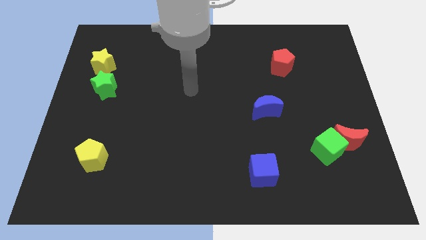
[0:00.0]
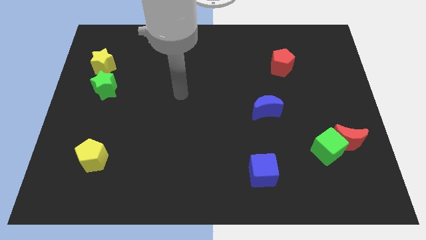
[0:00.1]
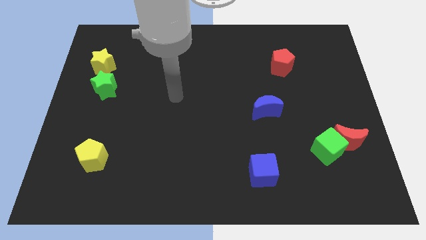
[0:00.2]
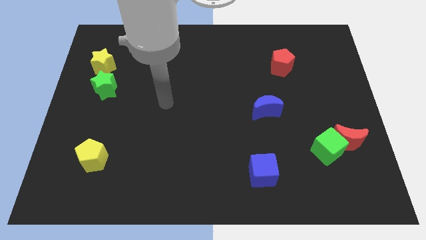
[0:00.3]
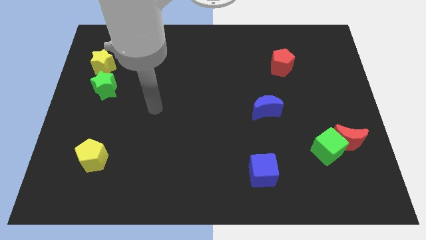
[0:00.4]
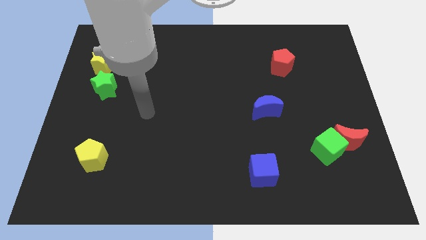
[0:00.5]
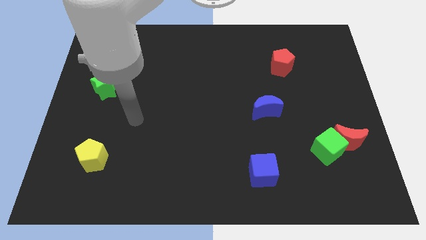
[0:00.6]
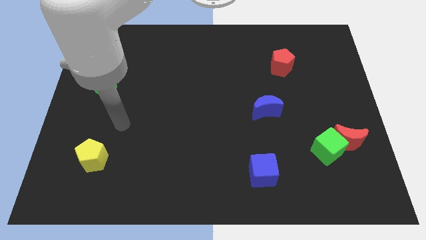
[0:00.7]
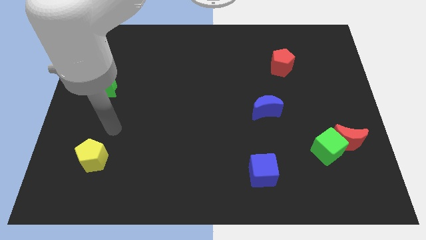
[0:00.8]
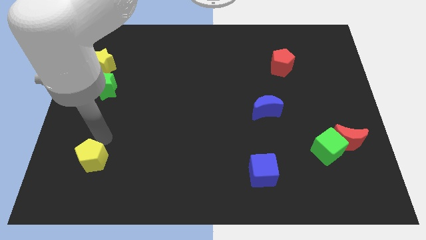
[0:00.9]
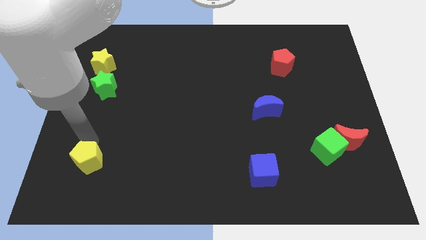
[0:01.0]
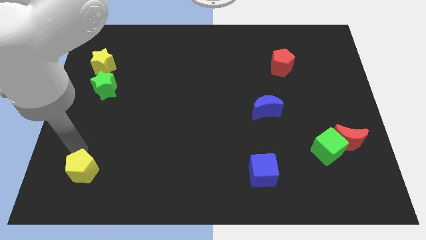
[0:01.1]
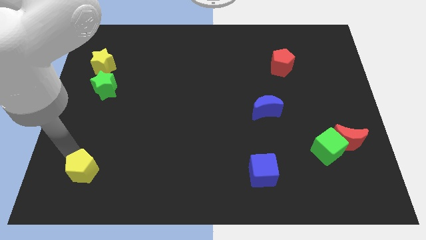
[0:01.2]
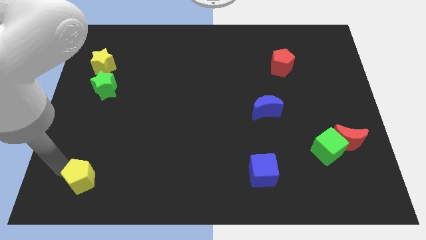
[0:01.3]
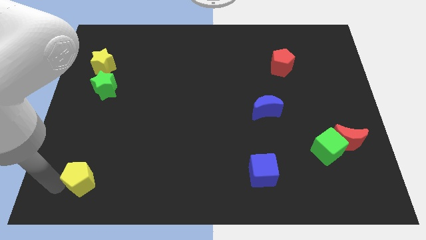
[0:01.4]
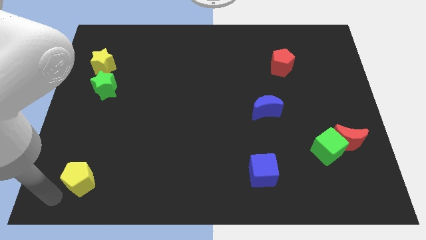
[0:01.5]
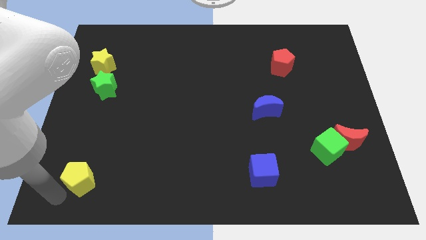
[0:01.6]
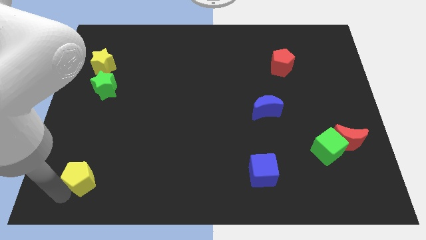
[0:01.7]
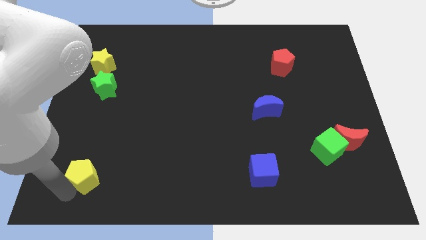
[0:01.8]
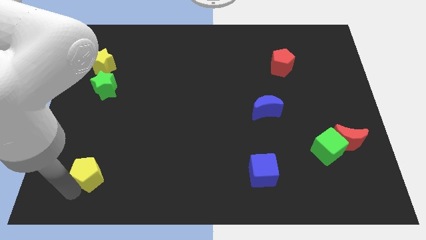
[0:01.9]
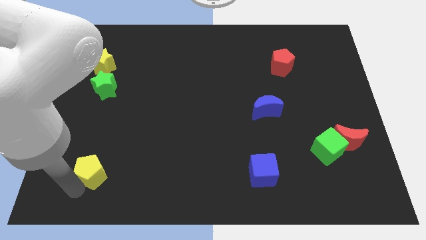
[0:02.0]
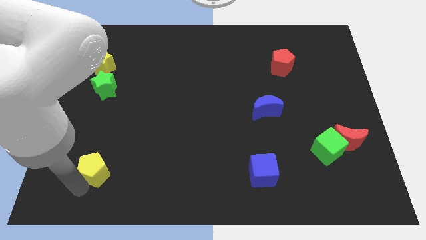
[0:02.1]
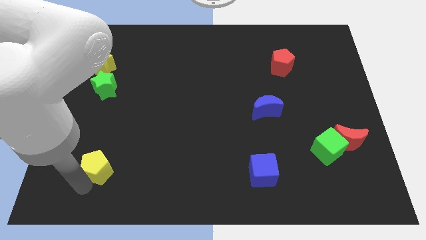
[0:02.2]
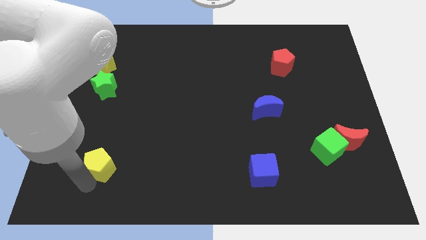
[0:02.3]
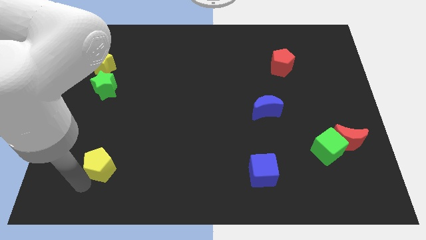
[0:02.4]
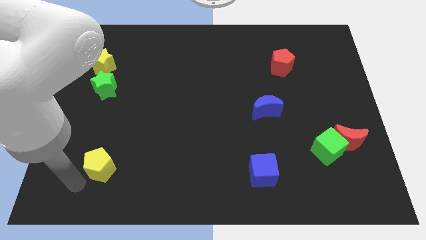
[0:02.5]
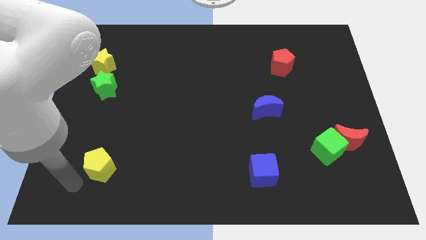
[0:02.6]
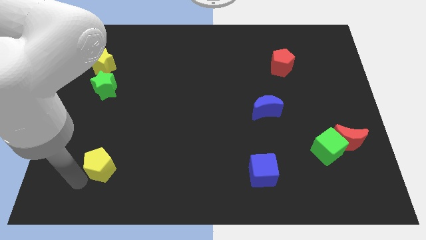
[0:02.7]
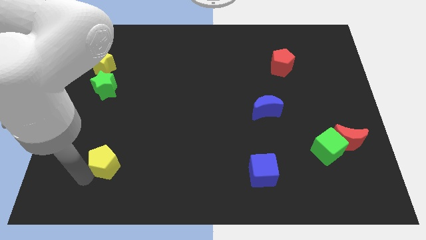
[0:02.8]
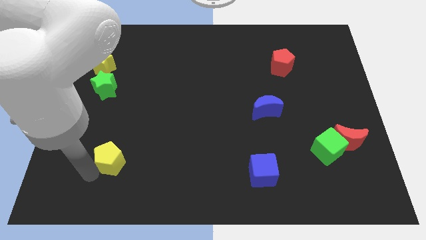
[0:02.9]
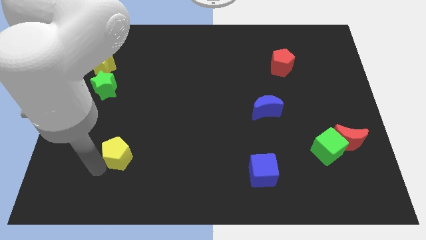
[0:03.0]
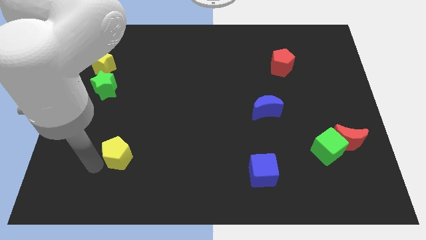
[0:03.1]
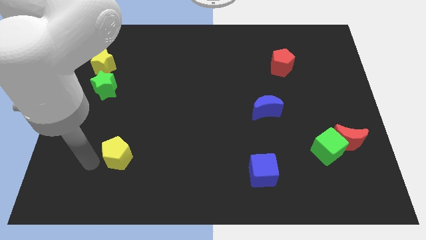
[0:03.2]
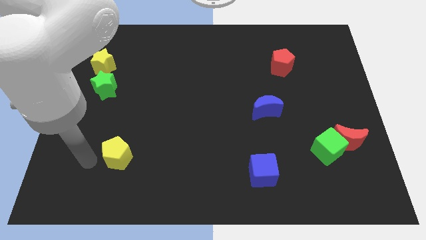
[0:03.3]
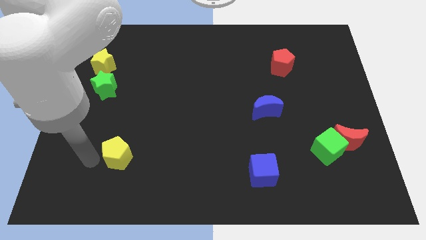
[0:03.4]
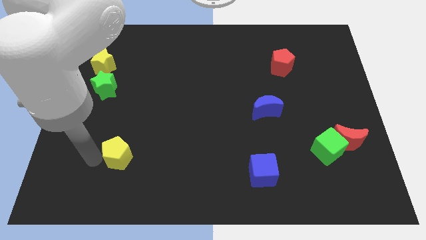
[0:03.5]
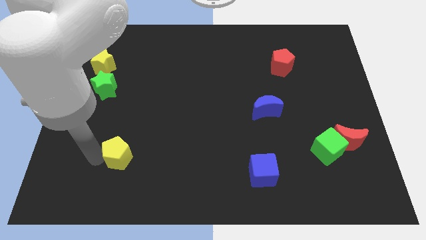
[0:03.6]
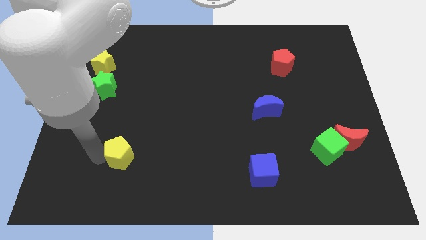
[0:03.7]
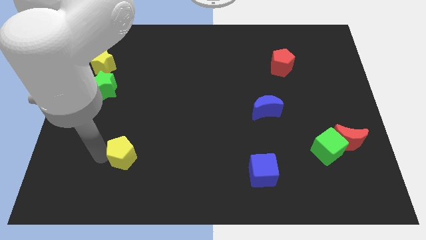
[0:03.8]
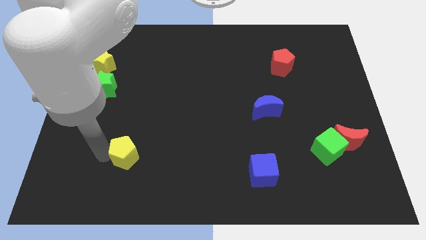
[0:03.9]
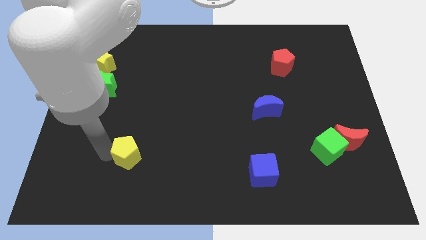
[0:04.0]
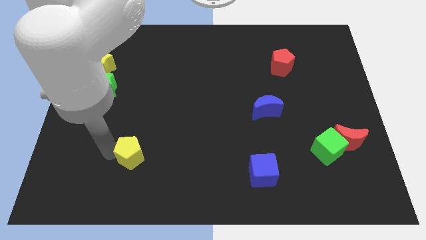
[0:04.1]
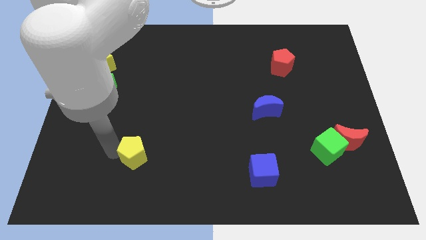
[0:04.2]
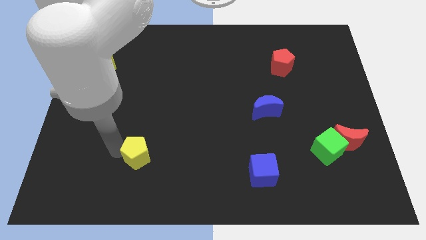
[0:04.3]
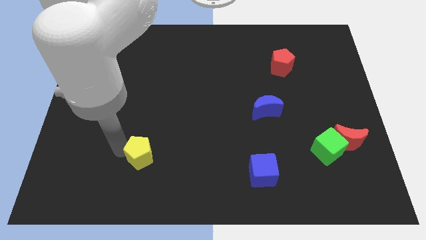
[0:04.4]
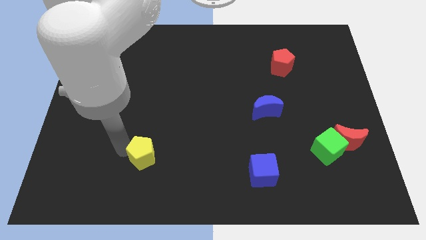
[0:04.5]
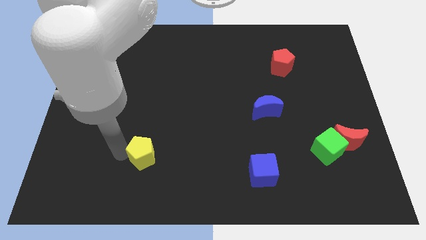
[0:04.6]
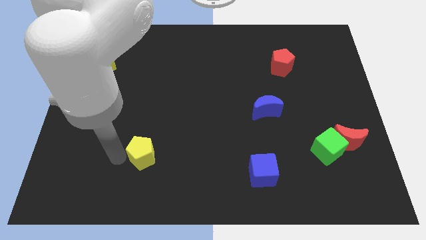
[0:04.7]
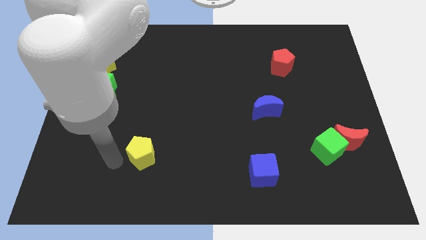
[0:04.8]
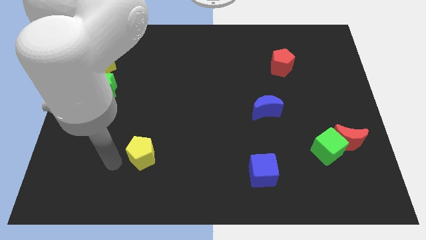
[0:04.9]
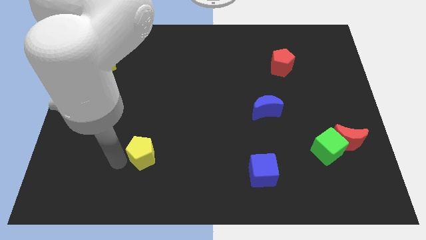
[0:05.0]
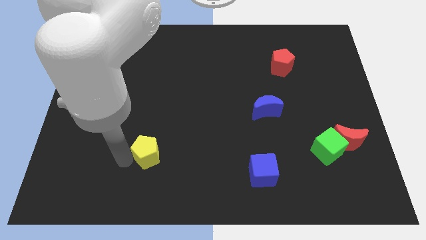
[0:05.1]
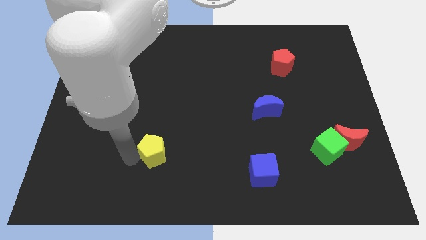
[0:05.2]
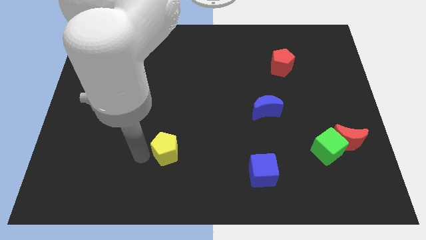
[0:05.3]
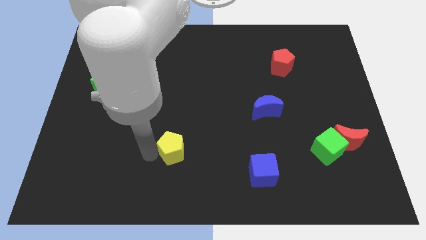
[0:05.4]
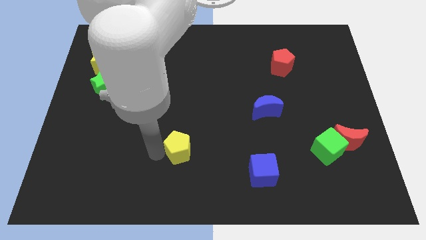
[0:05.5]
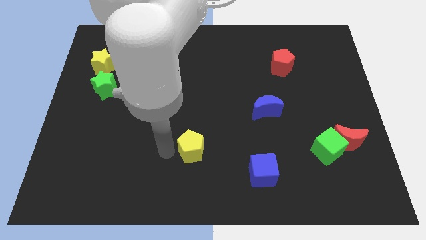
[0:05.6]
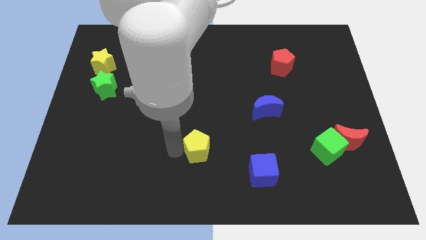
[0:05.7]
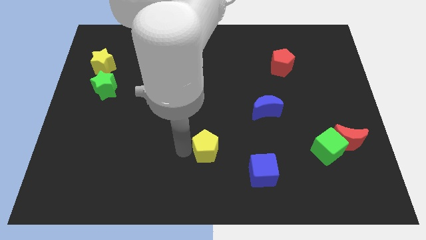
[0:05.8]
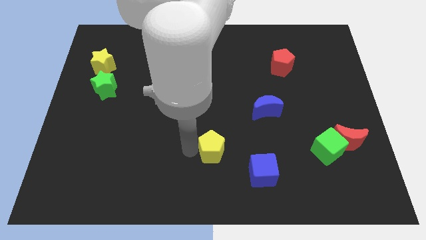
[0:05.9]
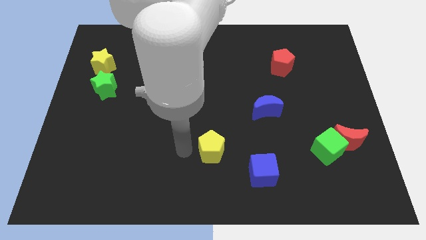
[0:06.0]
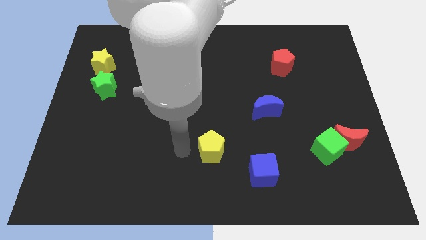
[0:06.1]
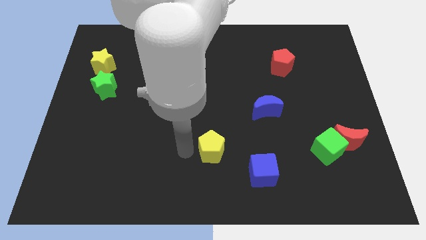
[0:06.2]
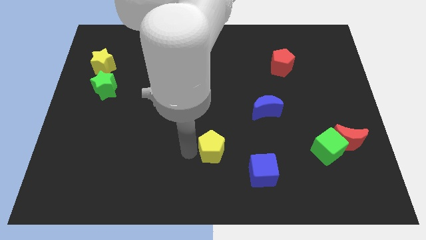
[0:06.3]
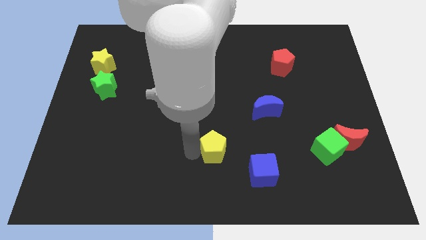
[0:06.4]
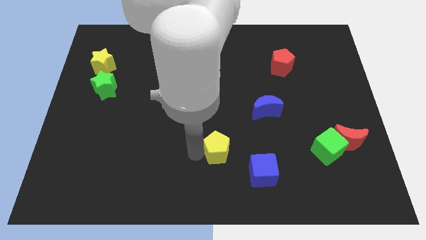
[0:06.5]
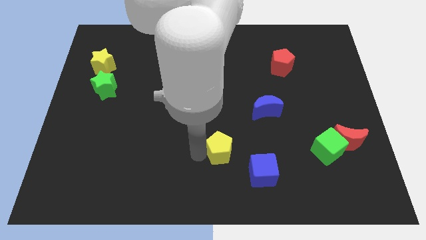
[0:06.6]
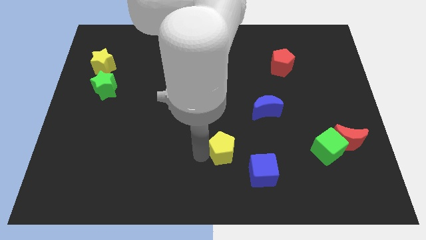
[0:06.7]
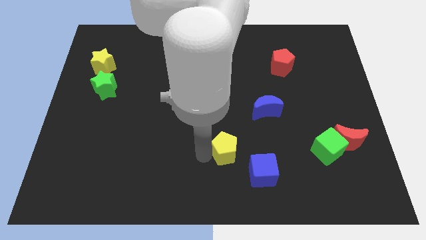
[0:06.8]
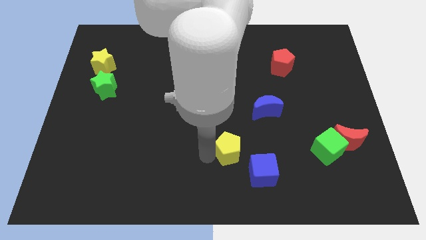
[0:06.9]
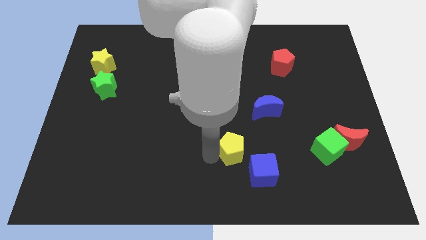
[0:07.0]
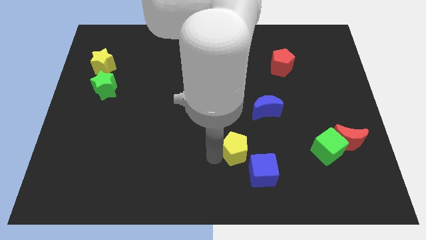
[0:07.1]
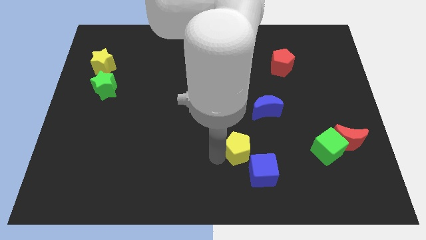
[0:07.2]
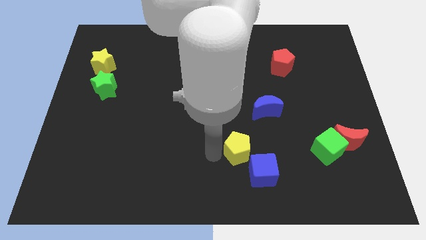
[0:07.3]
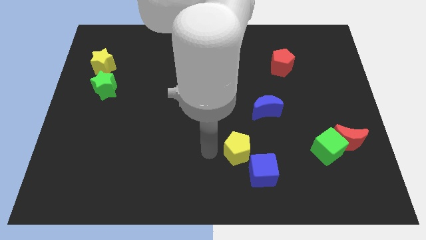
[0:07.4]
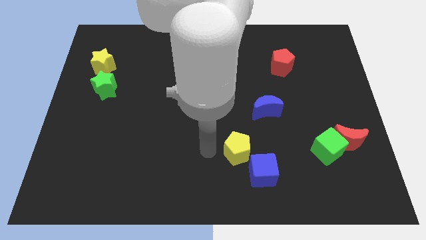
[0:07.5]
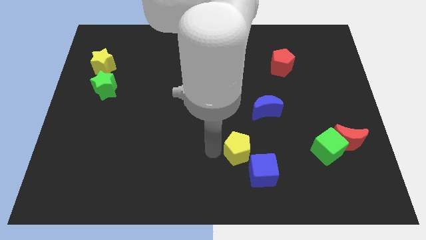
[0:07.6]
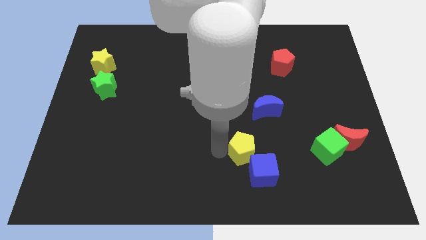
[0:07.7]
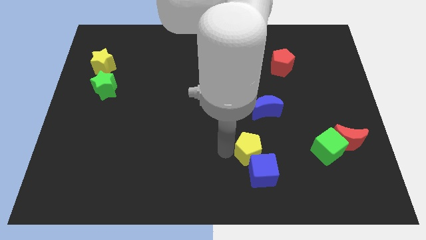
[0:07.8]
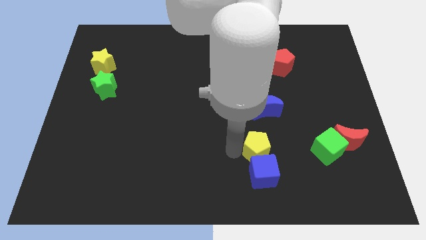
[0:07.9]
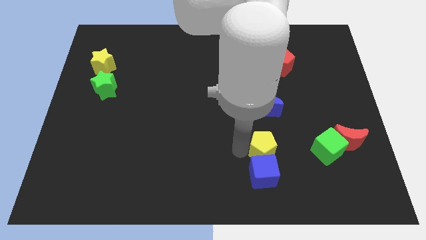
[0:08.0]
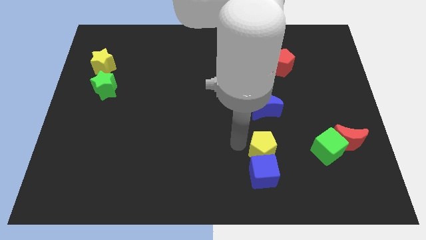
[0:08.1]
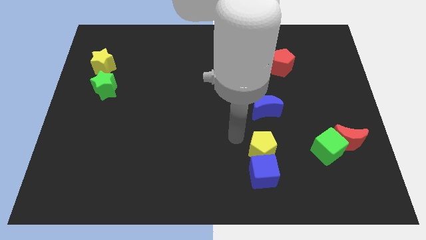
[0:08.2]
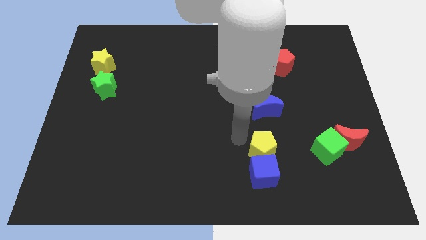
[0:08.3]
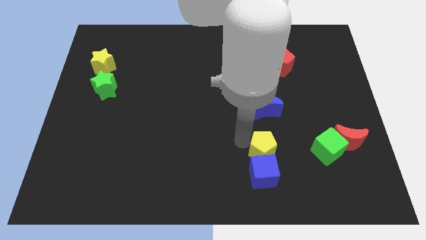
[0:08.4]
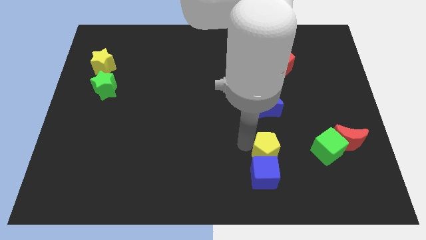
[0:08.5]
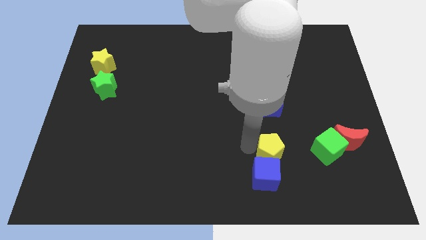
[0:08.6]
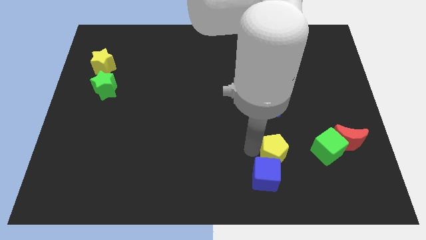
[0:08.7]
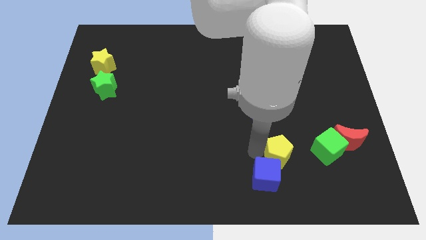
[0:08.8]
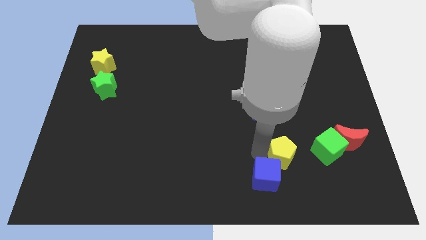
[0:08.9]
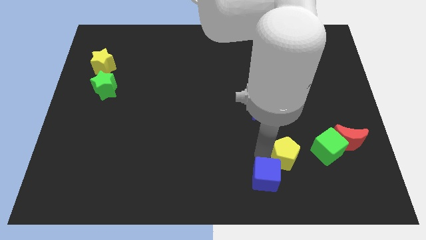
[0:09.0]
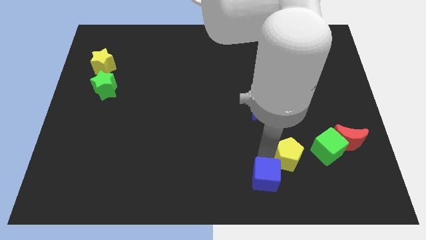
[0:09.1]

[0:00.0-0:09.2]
put the yellow pentagon to the bottom left of the green cube
